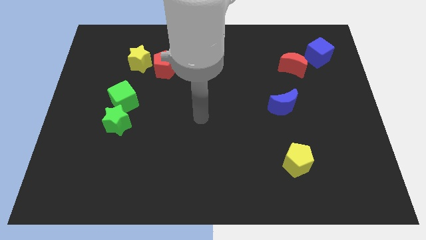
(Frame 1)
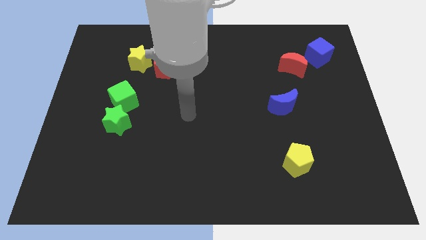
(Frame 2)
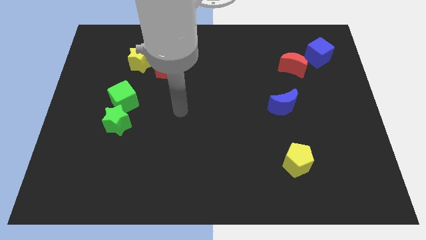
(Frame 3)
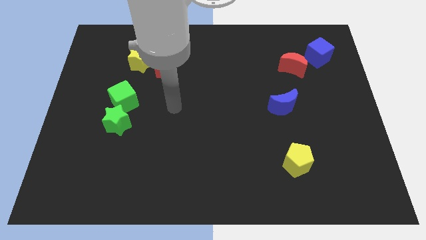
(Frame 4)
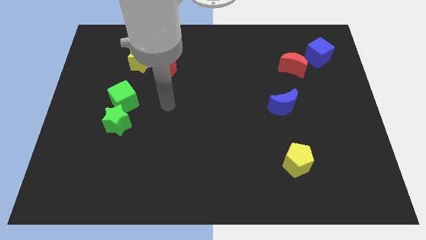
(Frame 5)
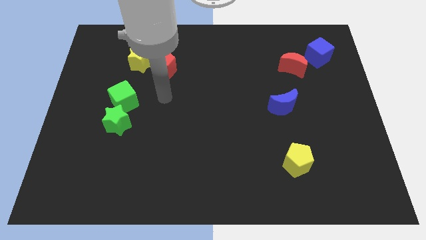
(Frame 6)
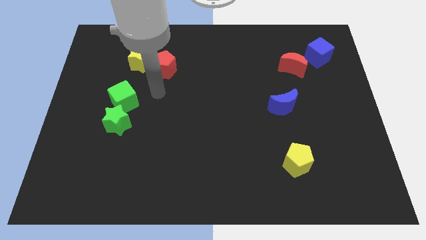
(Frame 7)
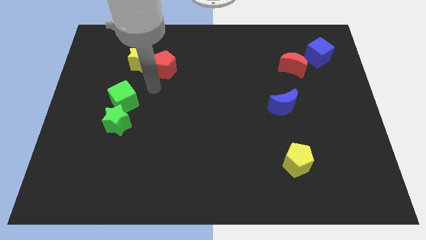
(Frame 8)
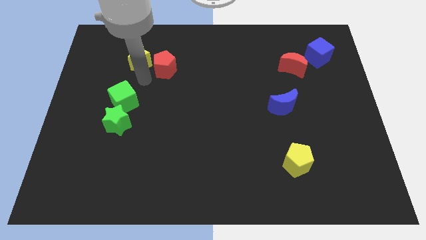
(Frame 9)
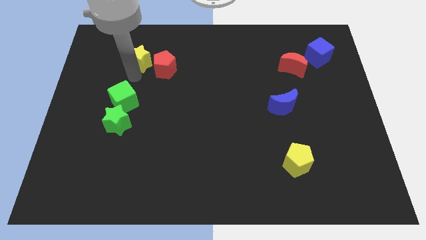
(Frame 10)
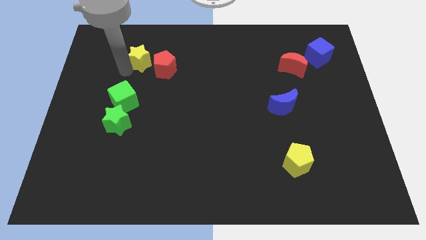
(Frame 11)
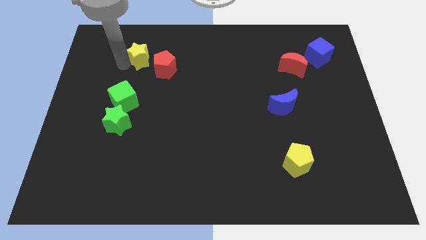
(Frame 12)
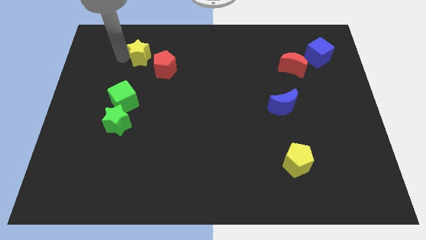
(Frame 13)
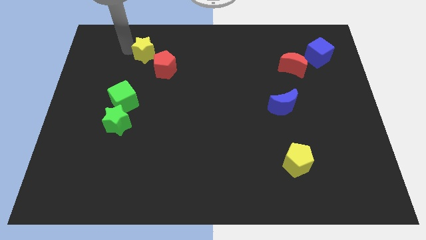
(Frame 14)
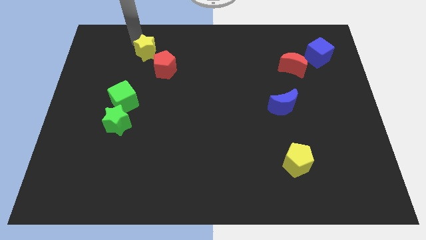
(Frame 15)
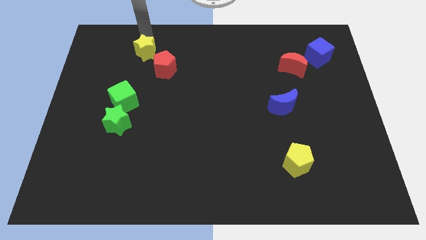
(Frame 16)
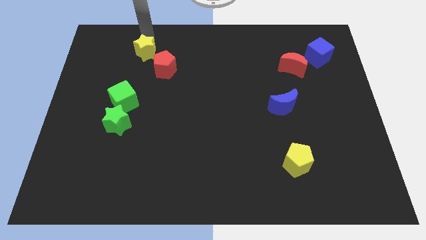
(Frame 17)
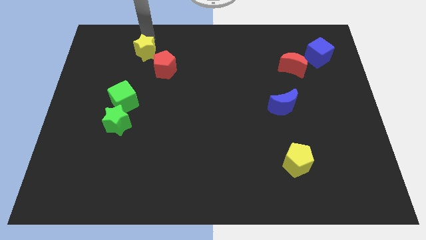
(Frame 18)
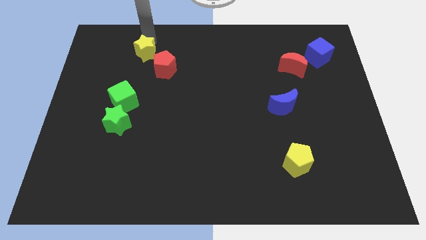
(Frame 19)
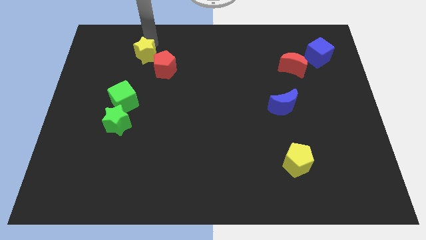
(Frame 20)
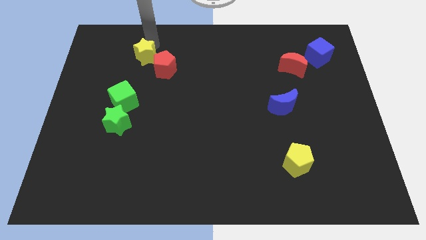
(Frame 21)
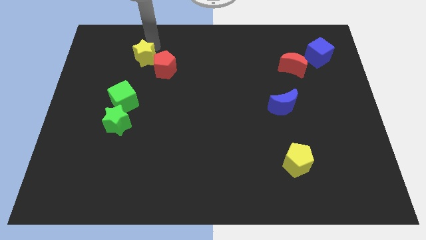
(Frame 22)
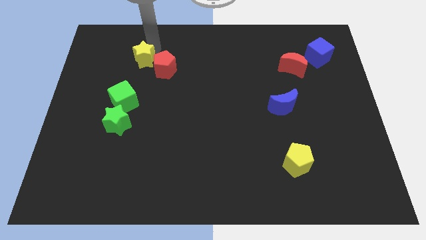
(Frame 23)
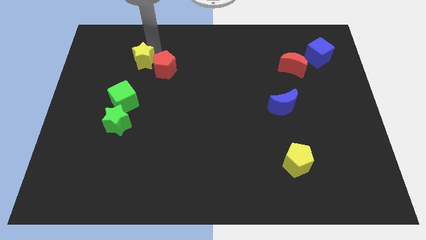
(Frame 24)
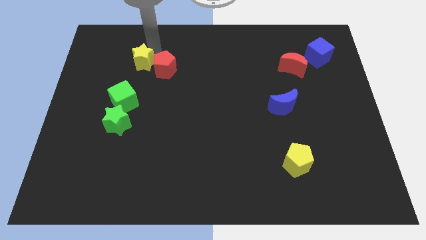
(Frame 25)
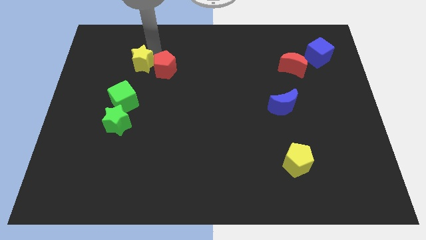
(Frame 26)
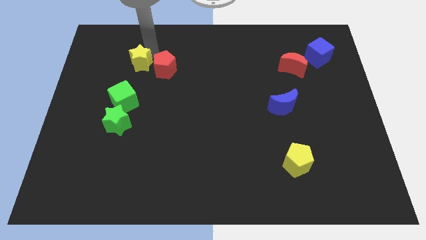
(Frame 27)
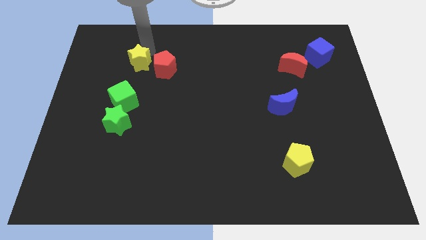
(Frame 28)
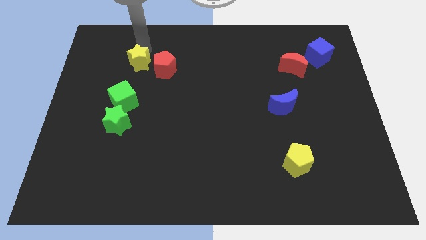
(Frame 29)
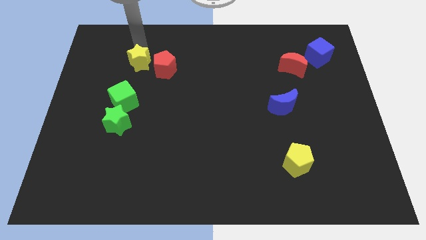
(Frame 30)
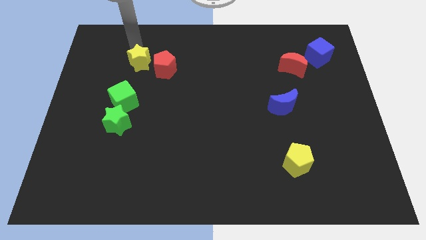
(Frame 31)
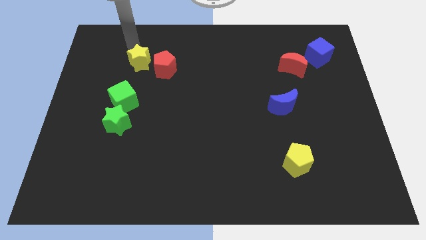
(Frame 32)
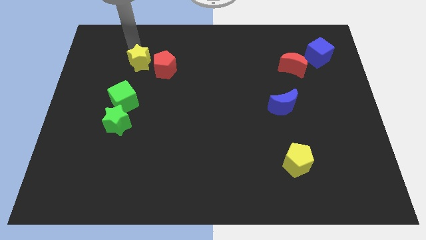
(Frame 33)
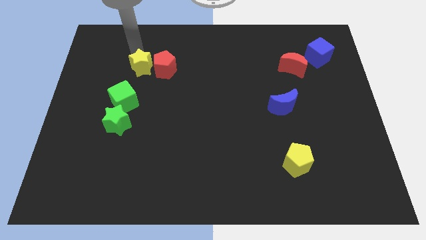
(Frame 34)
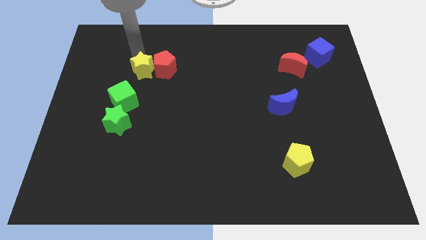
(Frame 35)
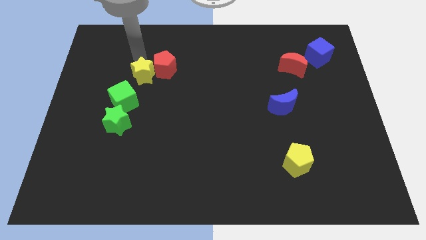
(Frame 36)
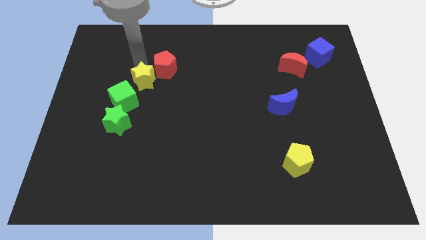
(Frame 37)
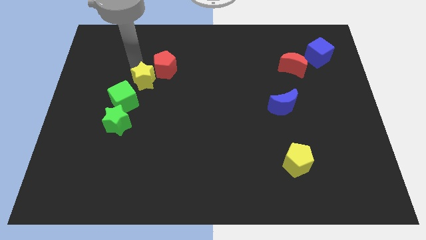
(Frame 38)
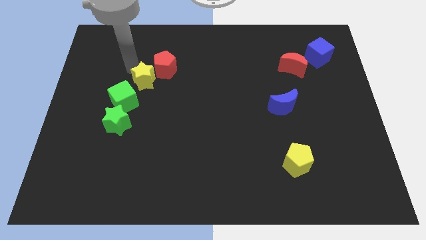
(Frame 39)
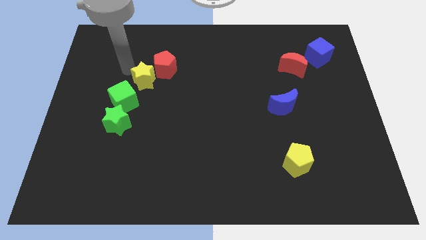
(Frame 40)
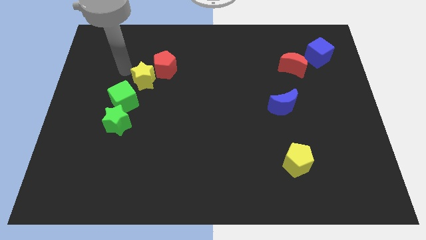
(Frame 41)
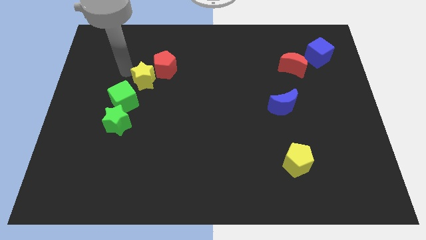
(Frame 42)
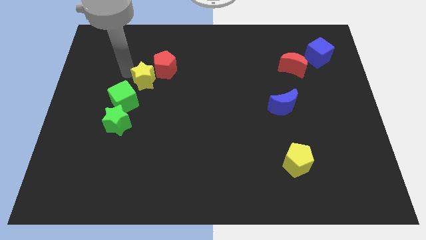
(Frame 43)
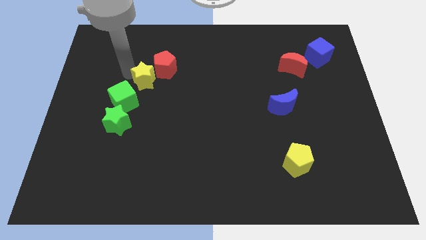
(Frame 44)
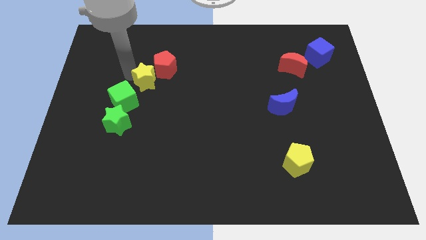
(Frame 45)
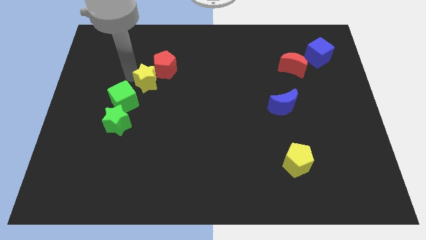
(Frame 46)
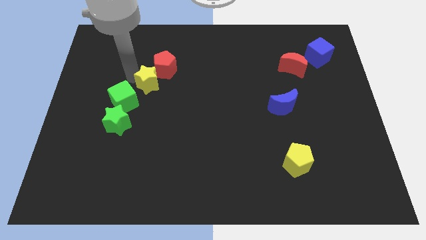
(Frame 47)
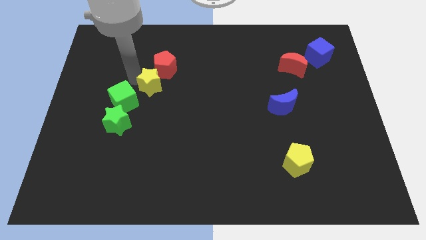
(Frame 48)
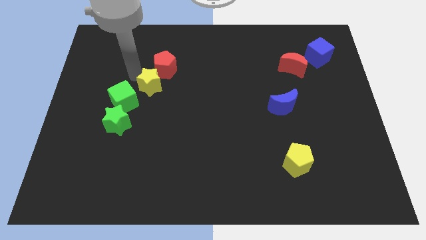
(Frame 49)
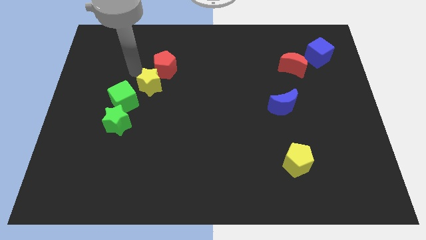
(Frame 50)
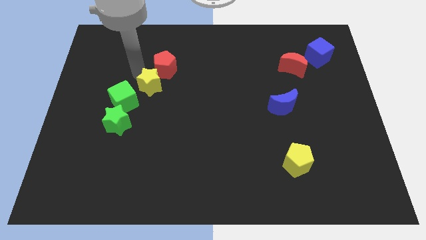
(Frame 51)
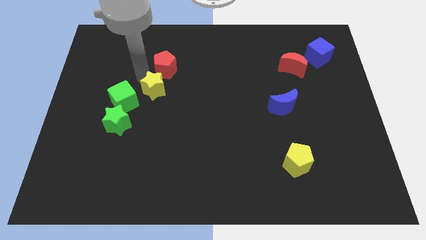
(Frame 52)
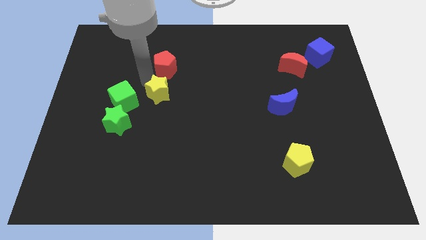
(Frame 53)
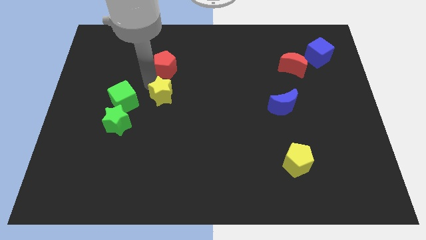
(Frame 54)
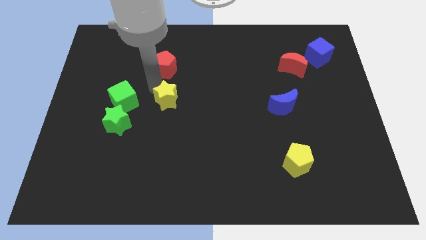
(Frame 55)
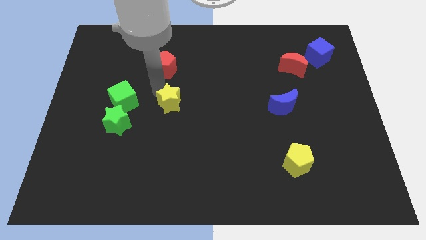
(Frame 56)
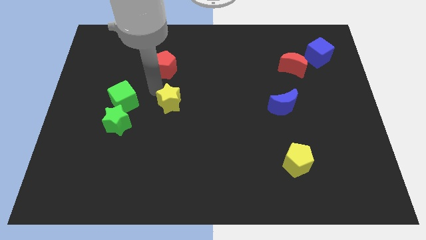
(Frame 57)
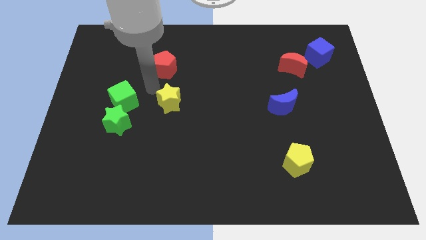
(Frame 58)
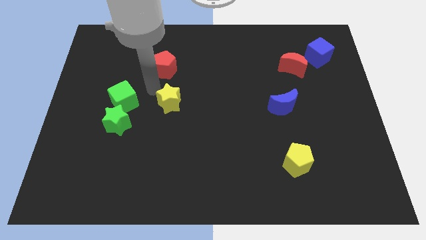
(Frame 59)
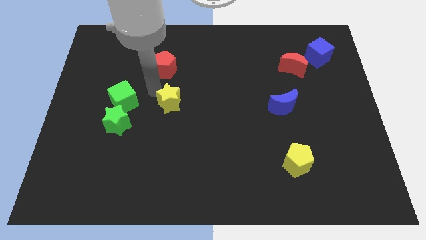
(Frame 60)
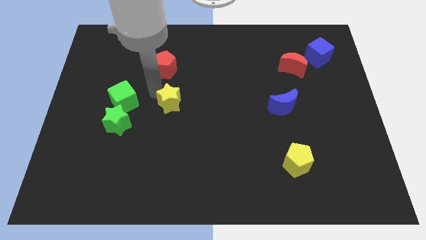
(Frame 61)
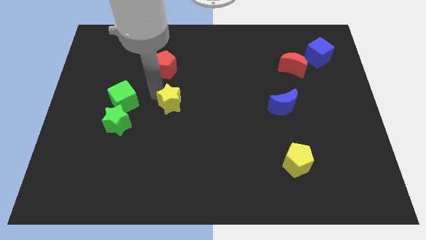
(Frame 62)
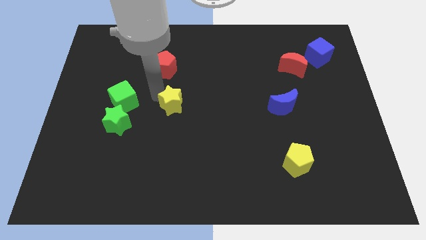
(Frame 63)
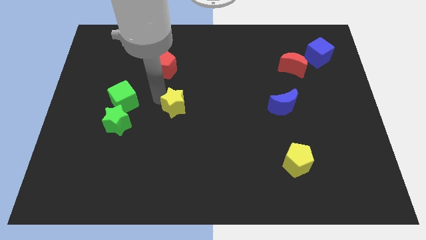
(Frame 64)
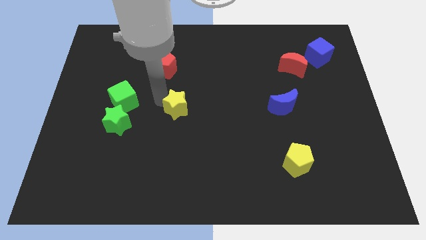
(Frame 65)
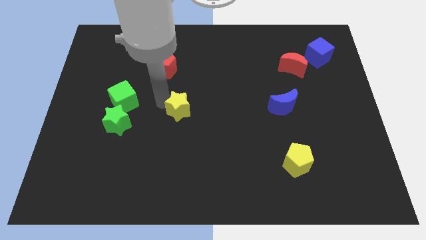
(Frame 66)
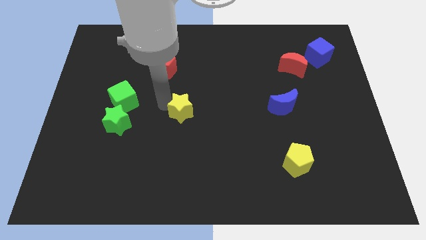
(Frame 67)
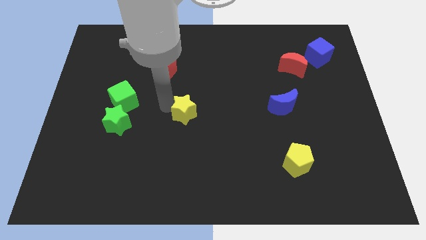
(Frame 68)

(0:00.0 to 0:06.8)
push the yellow star downwards and then to the right

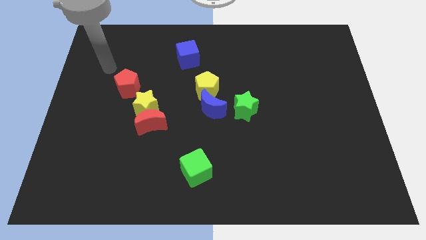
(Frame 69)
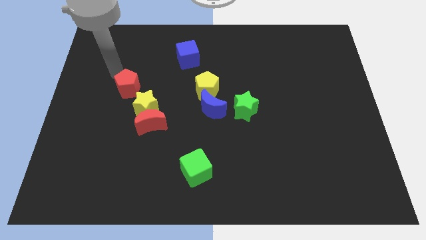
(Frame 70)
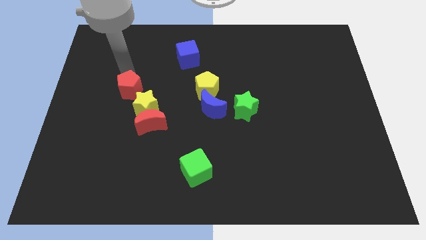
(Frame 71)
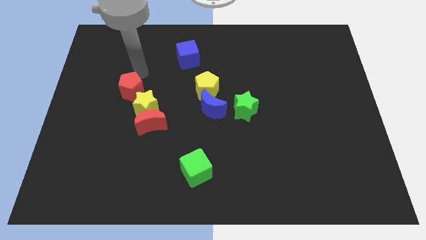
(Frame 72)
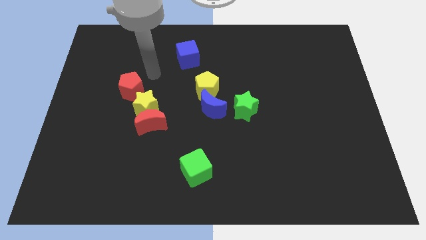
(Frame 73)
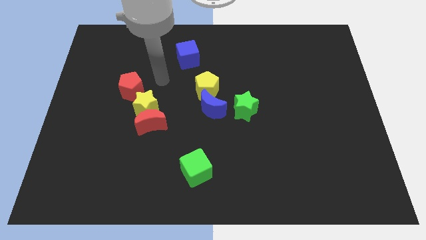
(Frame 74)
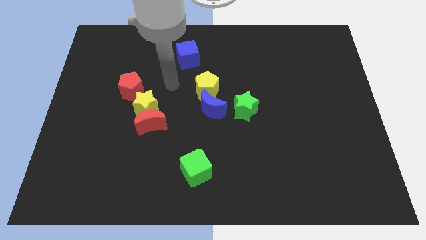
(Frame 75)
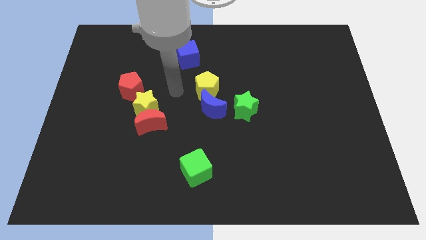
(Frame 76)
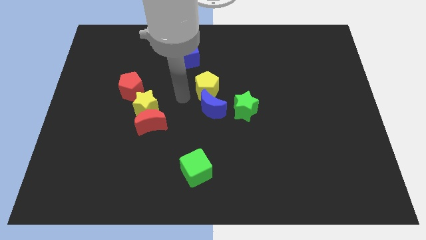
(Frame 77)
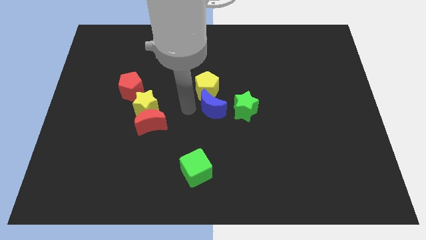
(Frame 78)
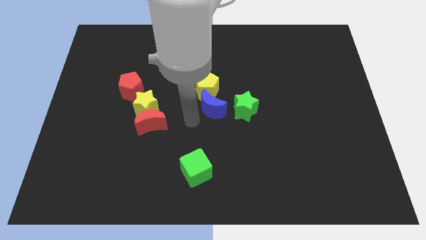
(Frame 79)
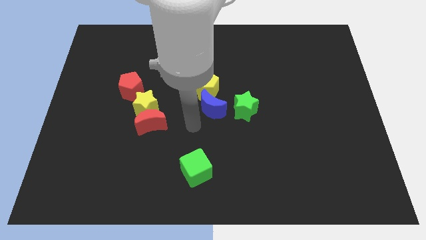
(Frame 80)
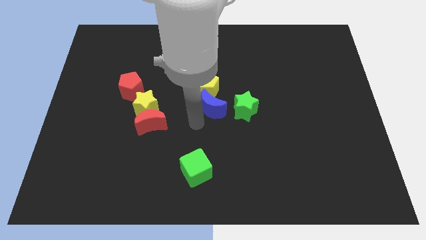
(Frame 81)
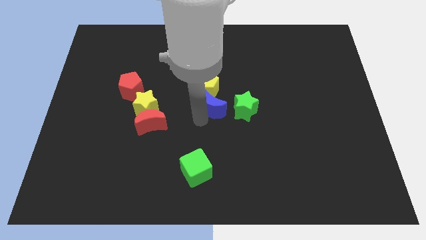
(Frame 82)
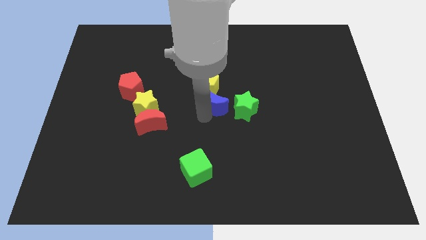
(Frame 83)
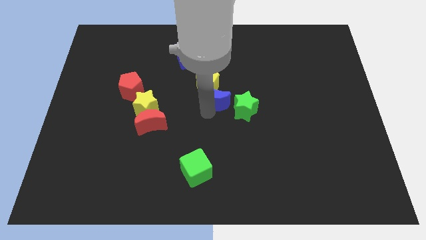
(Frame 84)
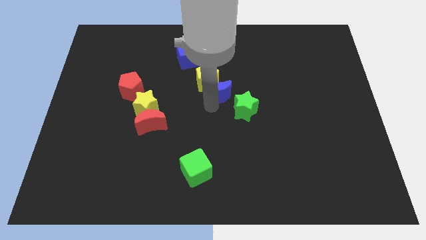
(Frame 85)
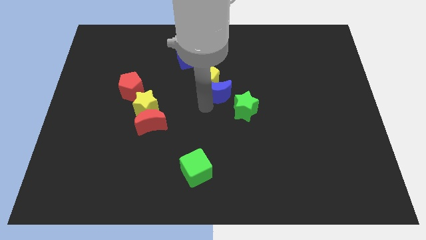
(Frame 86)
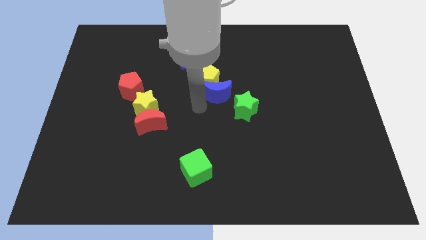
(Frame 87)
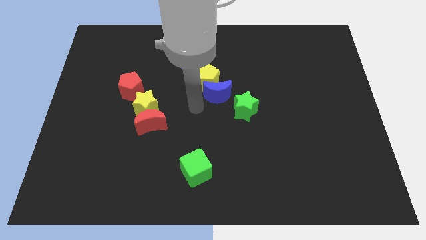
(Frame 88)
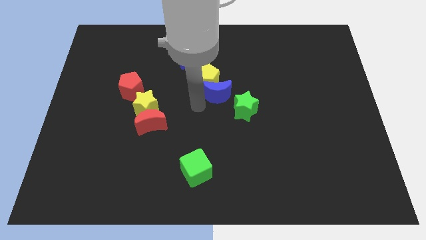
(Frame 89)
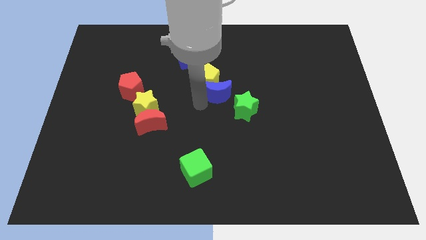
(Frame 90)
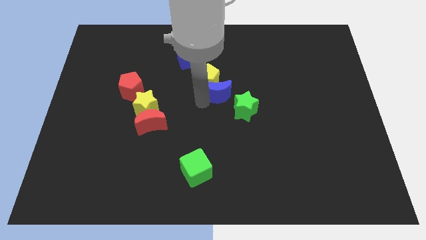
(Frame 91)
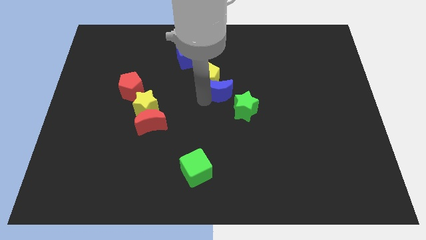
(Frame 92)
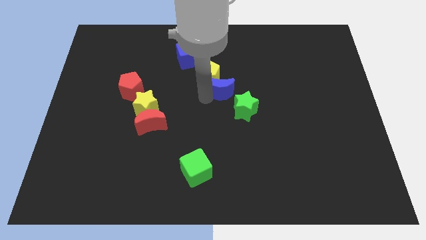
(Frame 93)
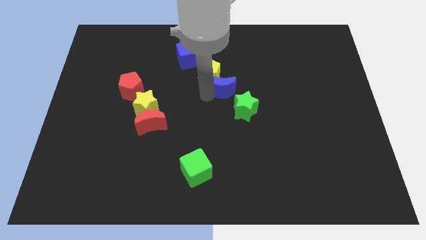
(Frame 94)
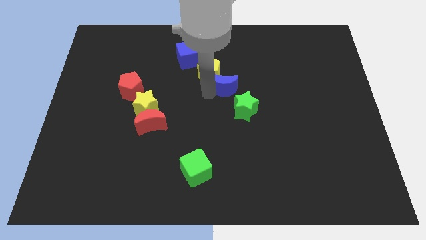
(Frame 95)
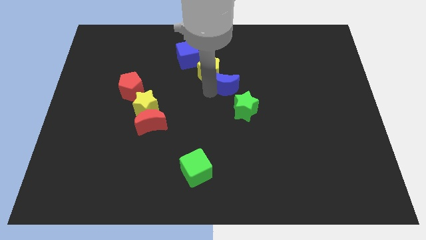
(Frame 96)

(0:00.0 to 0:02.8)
slightly slide the blue moon upwards and right
